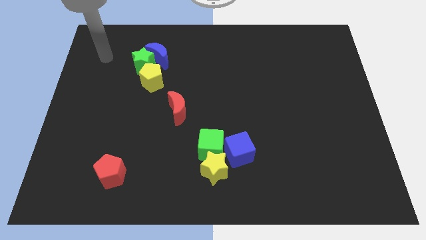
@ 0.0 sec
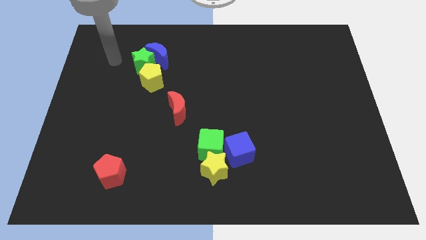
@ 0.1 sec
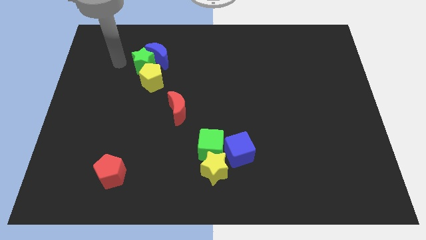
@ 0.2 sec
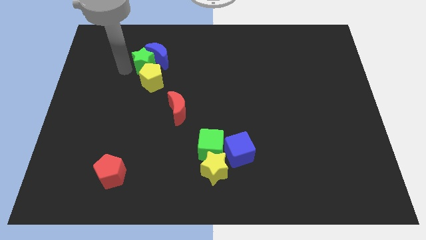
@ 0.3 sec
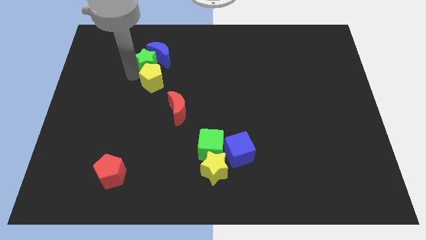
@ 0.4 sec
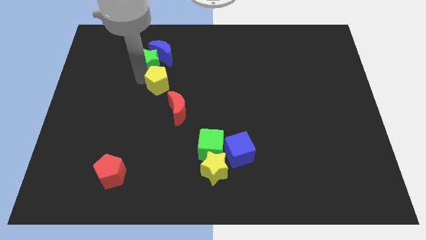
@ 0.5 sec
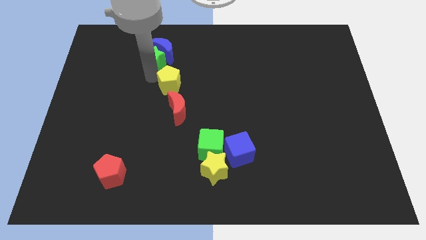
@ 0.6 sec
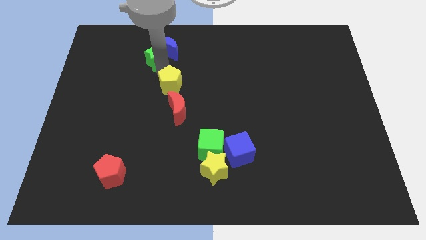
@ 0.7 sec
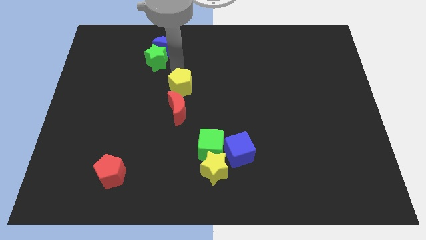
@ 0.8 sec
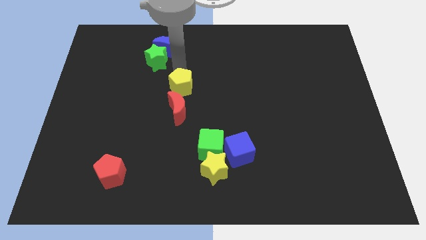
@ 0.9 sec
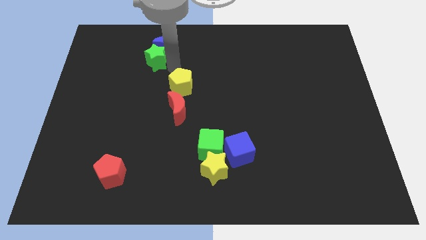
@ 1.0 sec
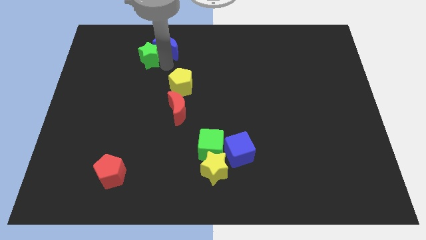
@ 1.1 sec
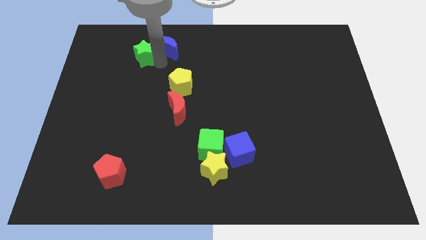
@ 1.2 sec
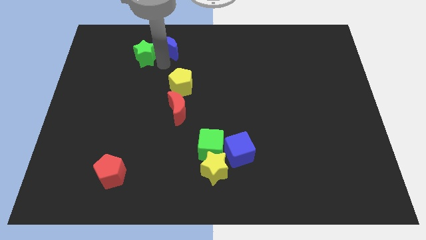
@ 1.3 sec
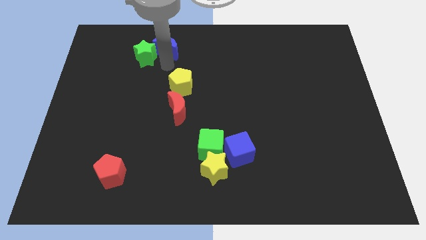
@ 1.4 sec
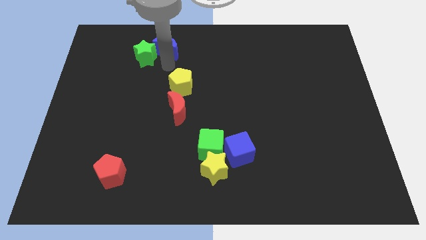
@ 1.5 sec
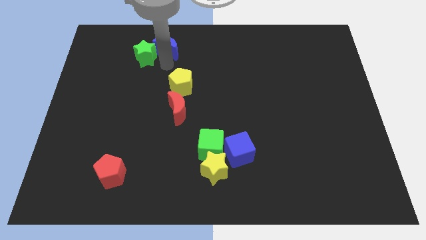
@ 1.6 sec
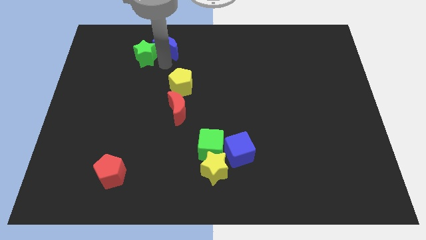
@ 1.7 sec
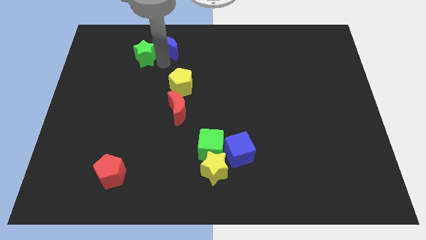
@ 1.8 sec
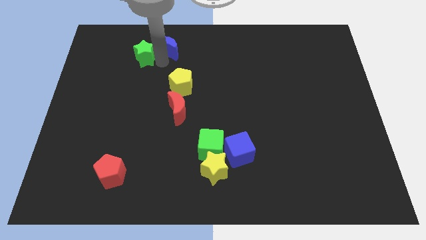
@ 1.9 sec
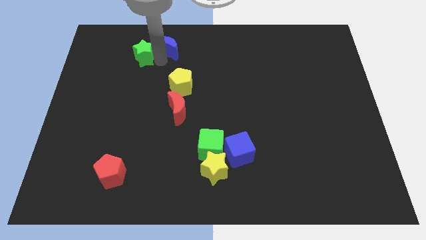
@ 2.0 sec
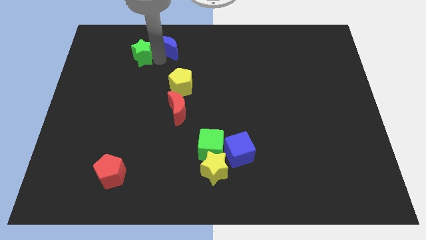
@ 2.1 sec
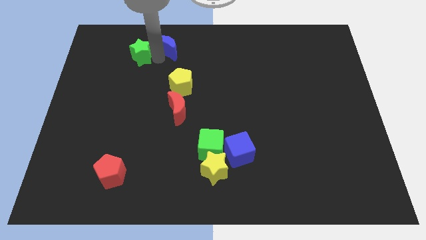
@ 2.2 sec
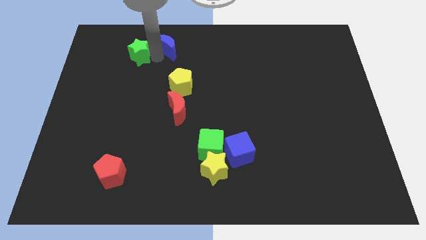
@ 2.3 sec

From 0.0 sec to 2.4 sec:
separate the green star from the blue moon and yellow pentagon

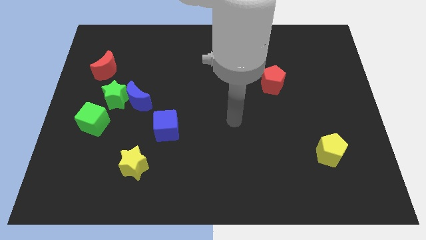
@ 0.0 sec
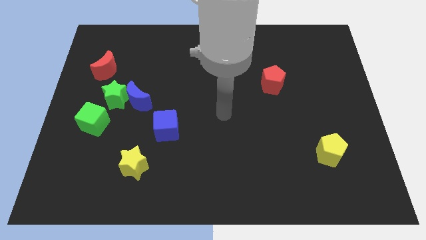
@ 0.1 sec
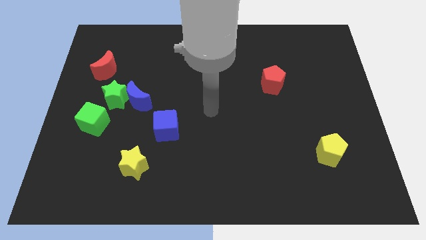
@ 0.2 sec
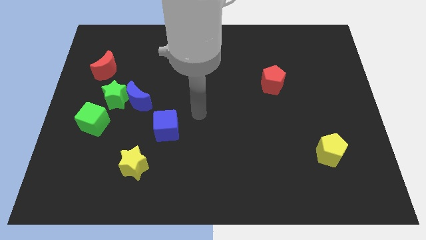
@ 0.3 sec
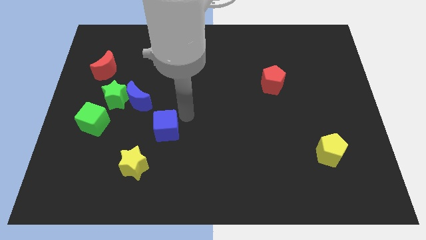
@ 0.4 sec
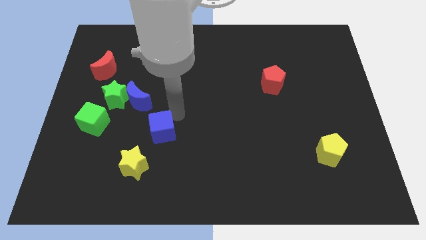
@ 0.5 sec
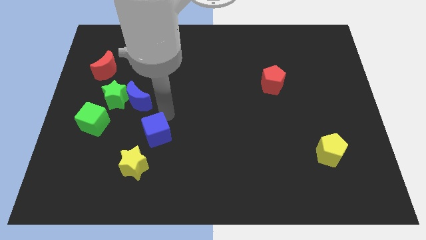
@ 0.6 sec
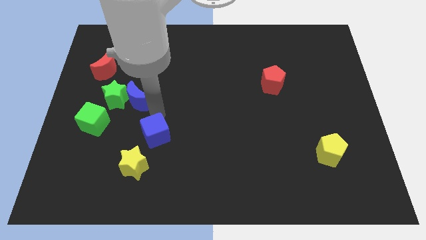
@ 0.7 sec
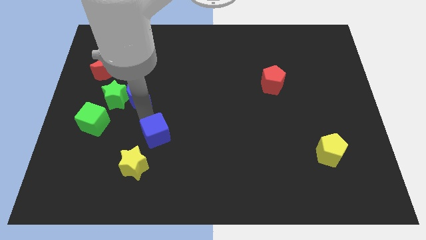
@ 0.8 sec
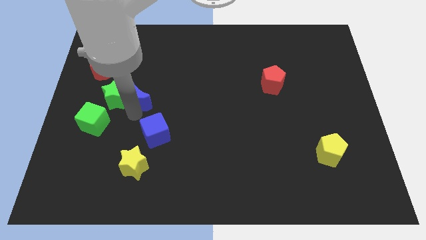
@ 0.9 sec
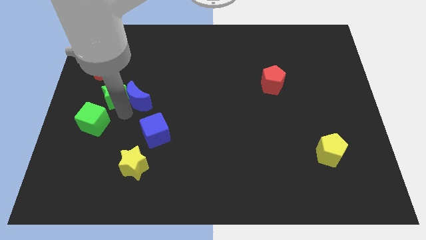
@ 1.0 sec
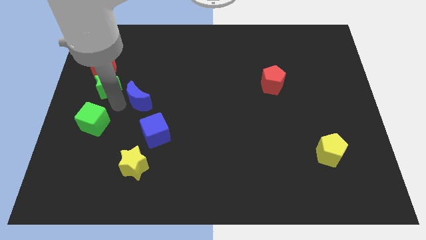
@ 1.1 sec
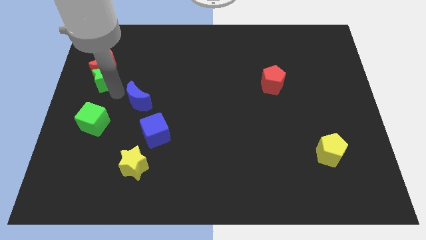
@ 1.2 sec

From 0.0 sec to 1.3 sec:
separate the blue moon from the green star

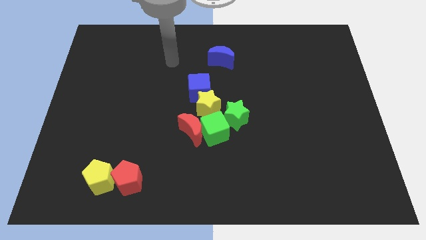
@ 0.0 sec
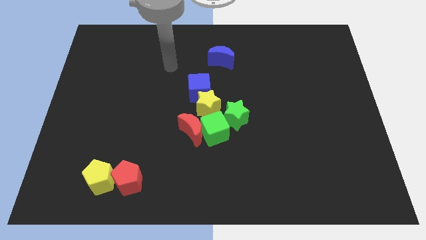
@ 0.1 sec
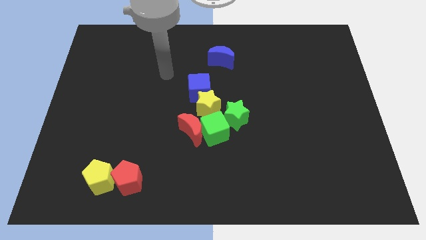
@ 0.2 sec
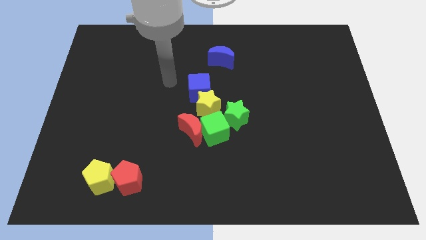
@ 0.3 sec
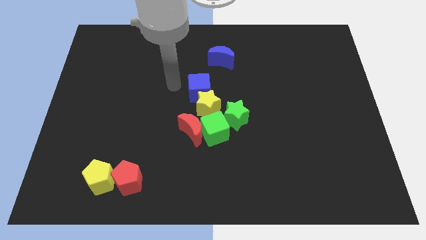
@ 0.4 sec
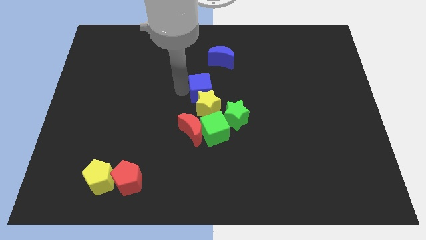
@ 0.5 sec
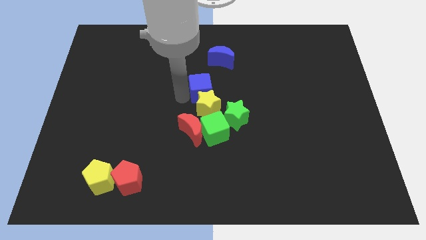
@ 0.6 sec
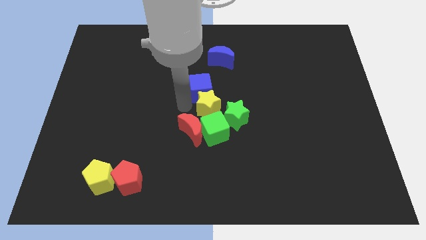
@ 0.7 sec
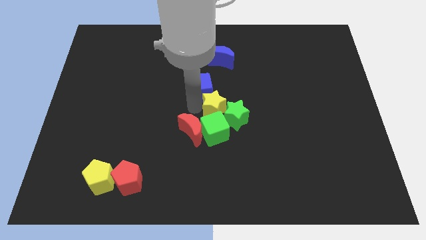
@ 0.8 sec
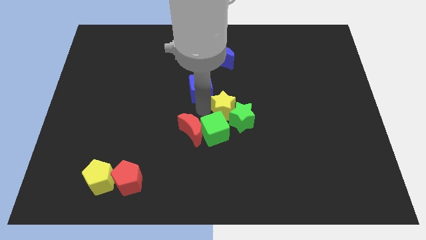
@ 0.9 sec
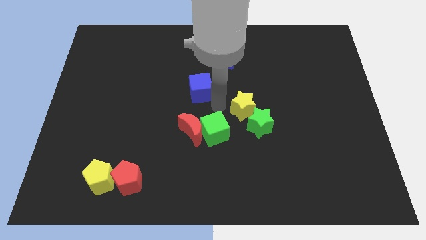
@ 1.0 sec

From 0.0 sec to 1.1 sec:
pull the blue cube apart from the yellow star

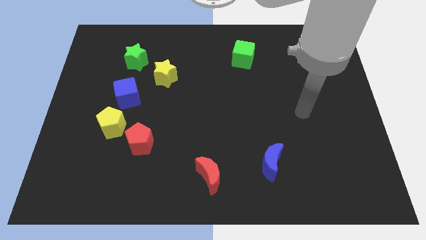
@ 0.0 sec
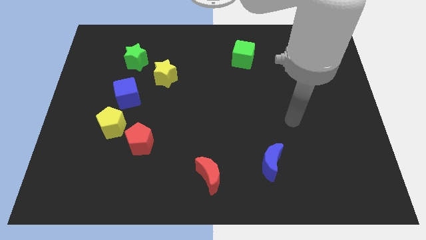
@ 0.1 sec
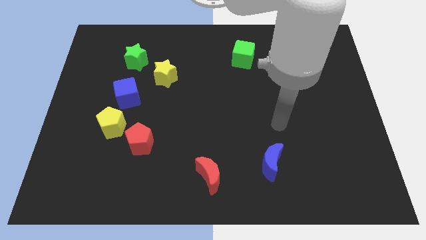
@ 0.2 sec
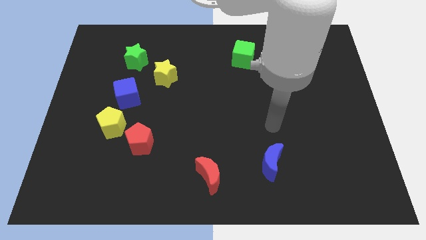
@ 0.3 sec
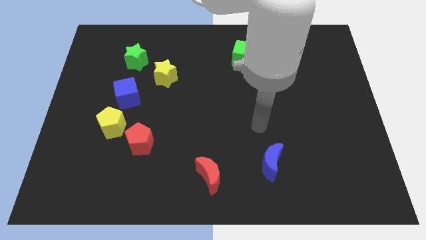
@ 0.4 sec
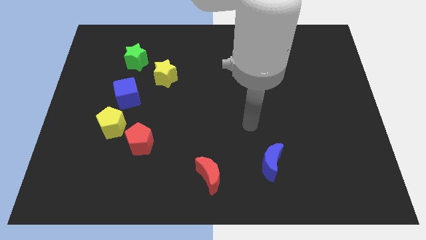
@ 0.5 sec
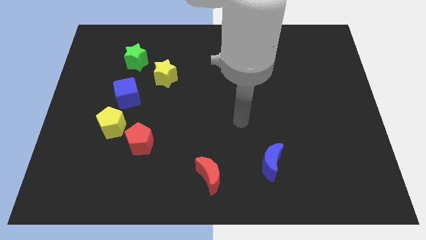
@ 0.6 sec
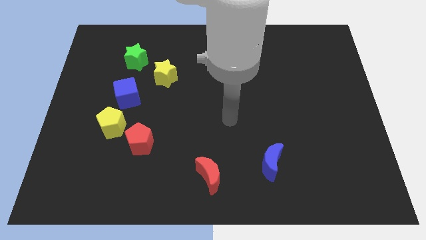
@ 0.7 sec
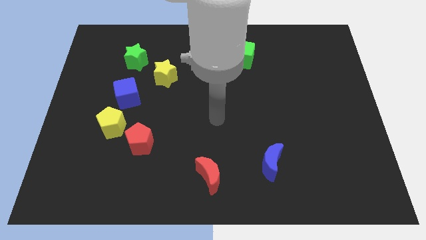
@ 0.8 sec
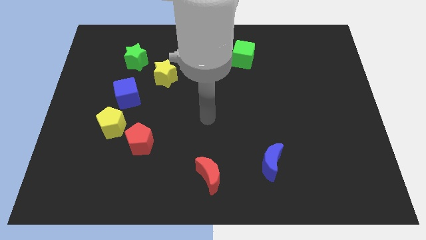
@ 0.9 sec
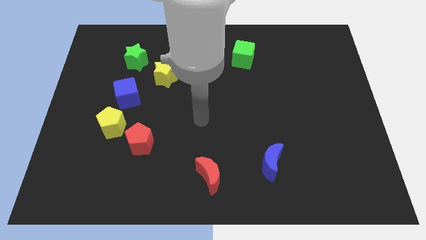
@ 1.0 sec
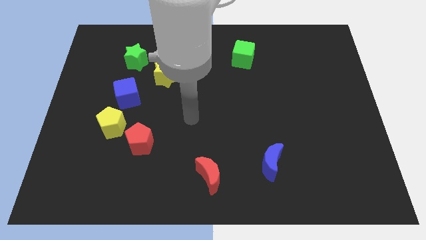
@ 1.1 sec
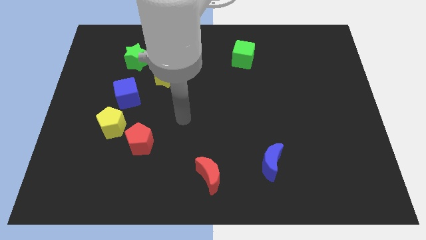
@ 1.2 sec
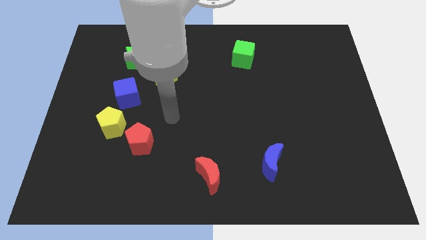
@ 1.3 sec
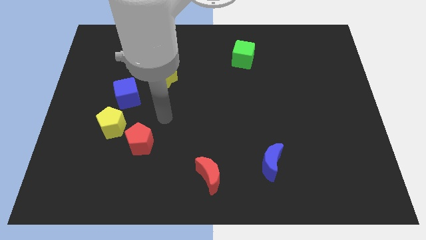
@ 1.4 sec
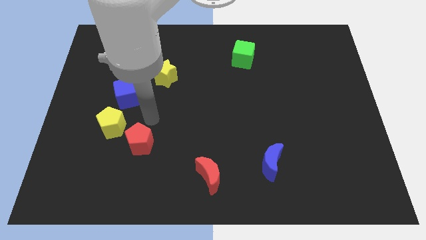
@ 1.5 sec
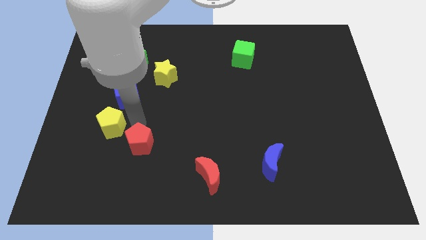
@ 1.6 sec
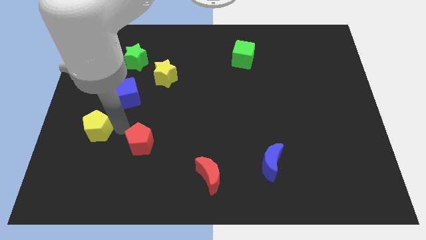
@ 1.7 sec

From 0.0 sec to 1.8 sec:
pull the red pentagon apart from the yellow pentagon

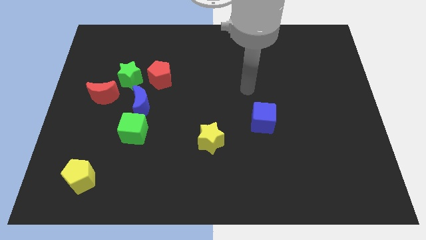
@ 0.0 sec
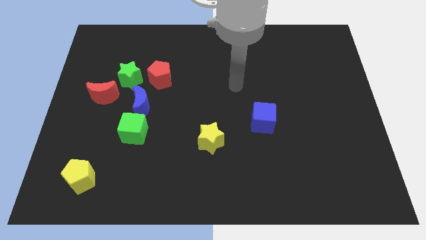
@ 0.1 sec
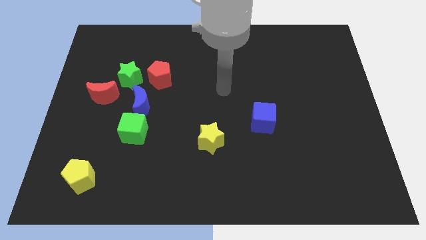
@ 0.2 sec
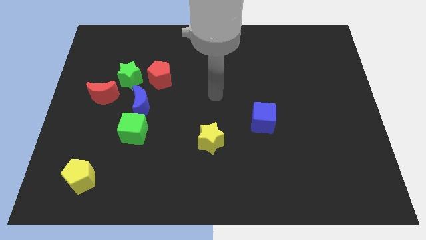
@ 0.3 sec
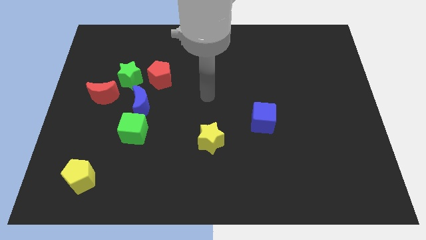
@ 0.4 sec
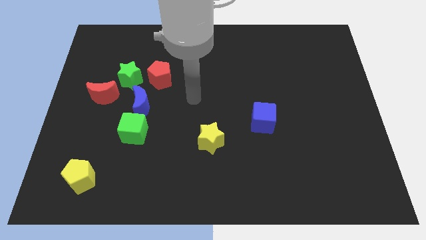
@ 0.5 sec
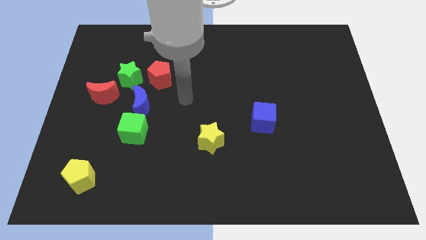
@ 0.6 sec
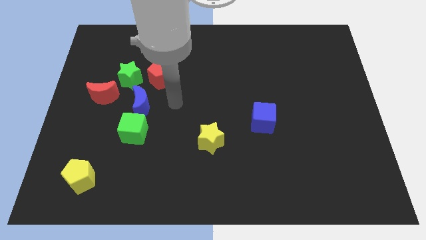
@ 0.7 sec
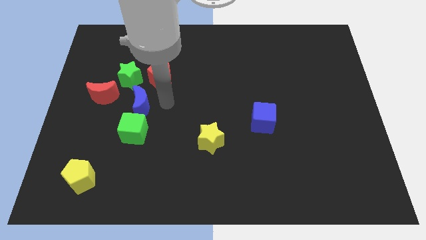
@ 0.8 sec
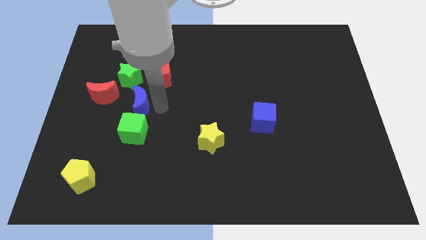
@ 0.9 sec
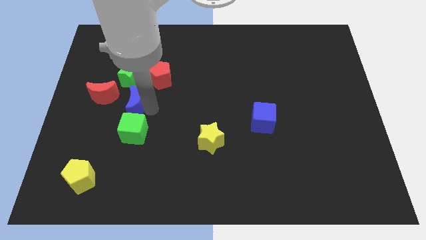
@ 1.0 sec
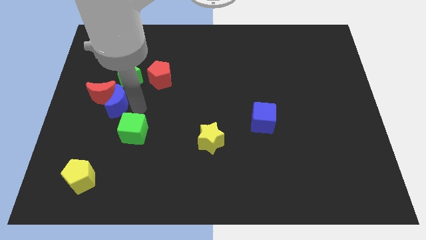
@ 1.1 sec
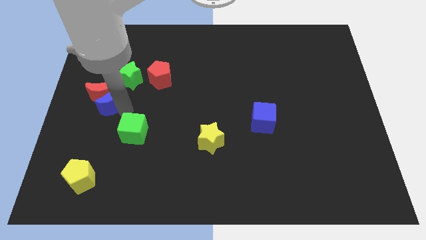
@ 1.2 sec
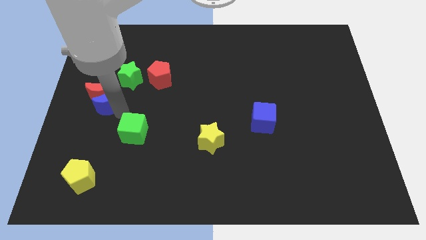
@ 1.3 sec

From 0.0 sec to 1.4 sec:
separate the green cube from the blue moon

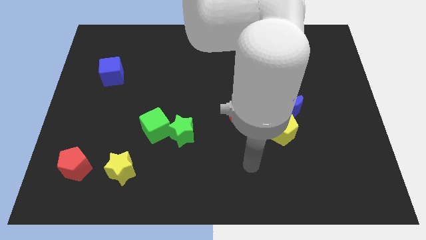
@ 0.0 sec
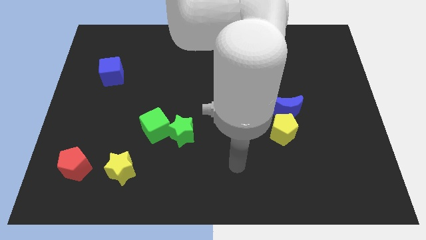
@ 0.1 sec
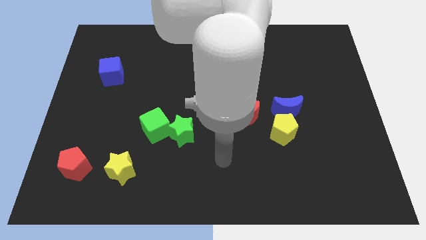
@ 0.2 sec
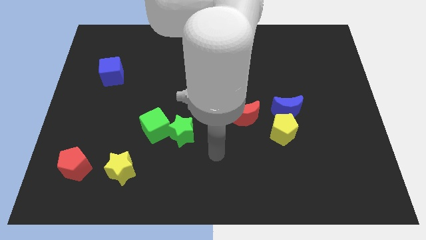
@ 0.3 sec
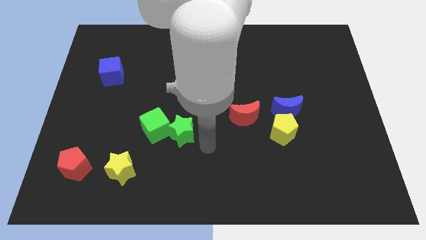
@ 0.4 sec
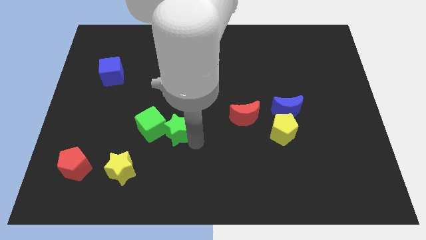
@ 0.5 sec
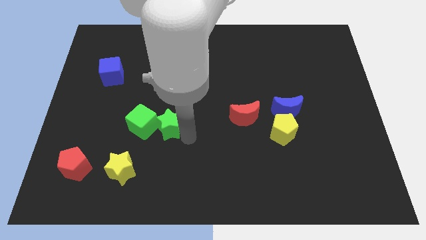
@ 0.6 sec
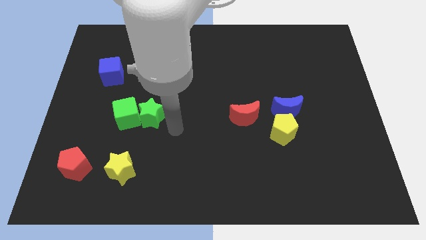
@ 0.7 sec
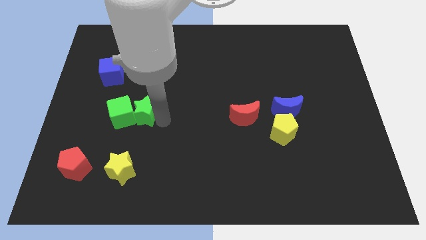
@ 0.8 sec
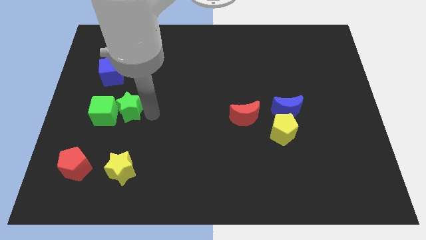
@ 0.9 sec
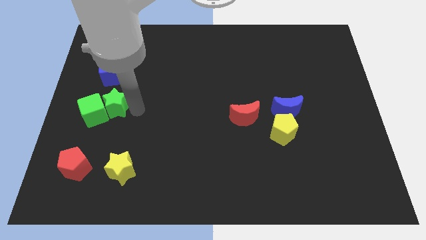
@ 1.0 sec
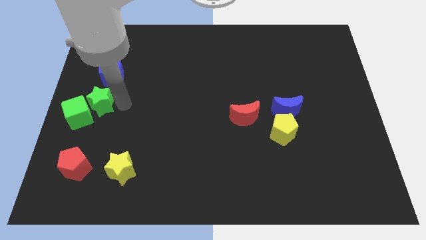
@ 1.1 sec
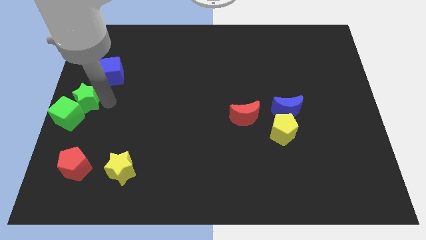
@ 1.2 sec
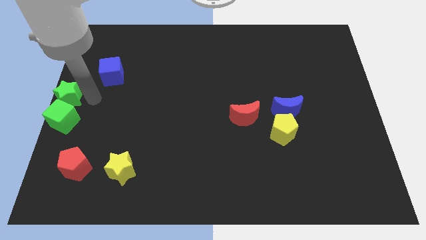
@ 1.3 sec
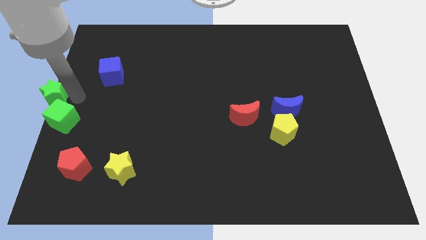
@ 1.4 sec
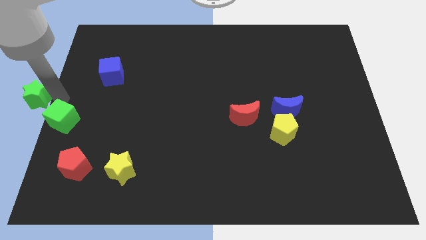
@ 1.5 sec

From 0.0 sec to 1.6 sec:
pull the green cube apart from the green star
